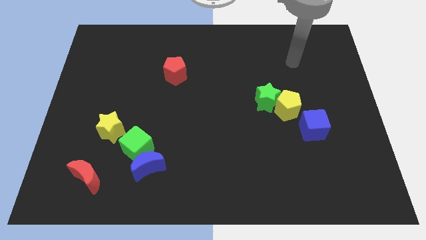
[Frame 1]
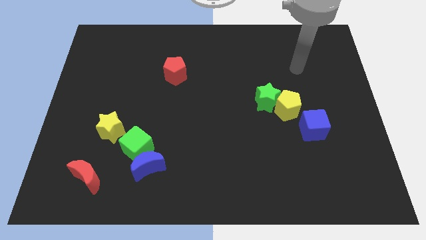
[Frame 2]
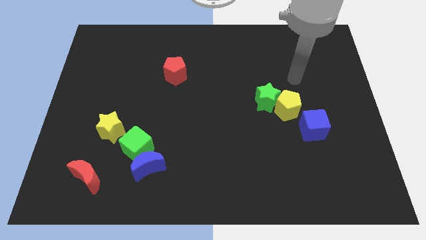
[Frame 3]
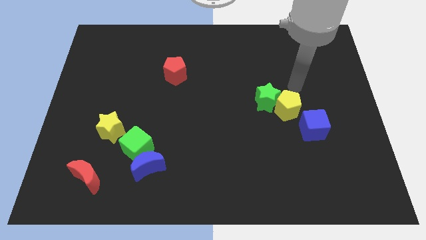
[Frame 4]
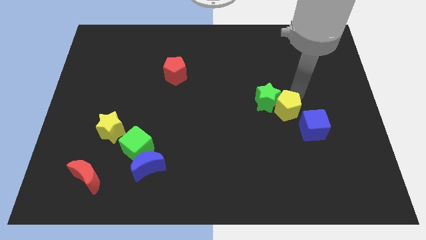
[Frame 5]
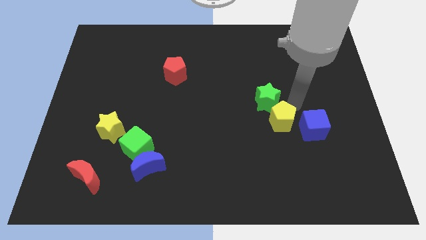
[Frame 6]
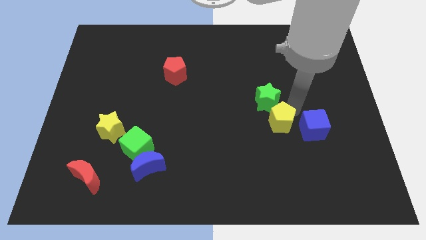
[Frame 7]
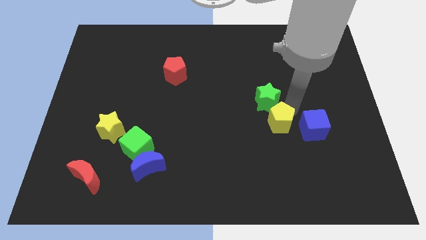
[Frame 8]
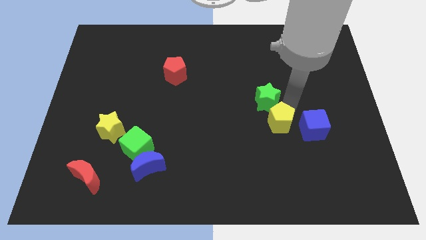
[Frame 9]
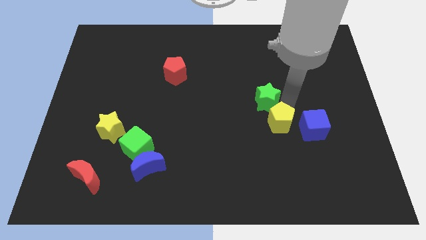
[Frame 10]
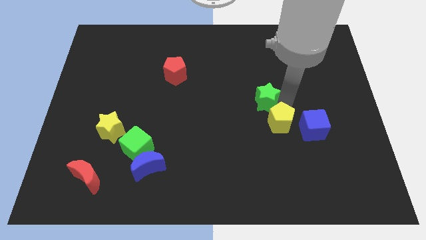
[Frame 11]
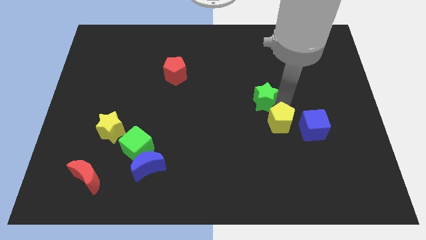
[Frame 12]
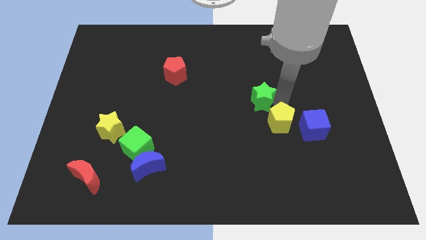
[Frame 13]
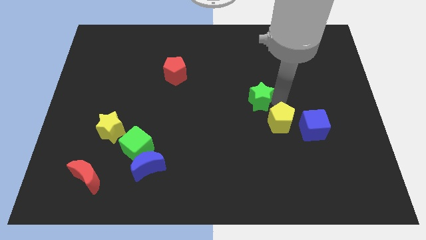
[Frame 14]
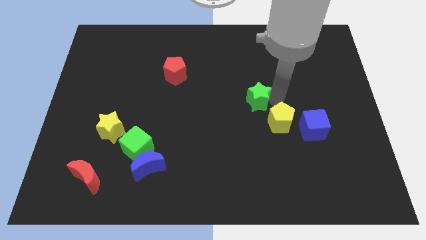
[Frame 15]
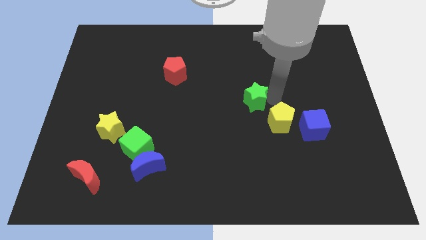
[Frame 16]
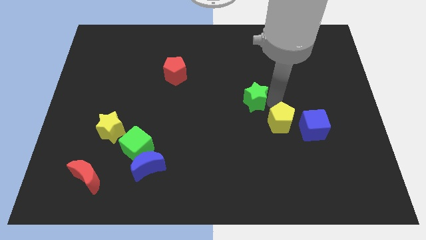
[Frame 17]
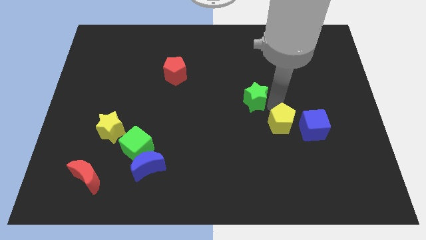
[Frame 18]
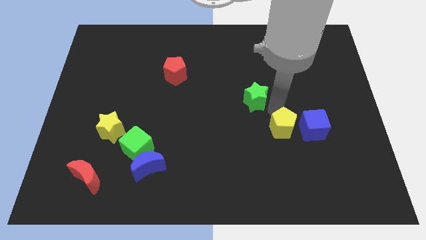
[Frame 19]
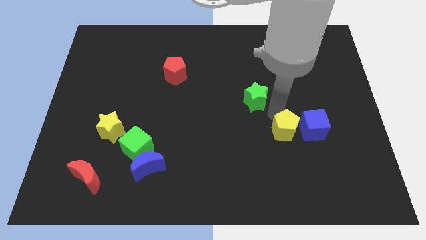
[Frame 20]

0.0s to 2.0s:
separate the green star from the yellow pentagon

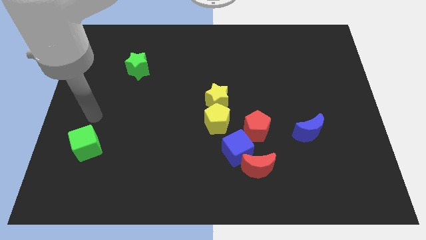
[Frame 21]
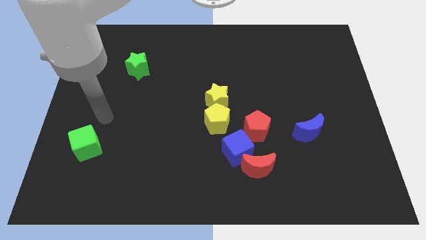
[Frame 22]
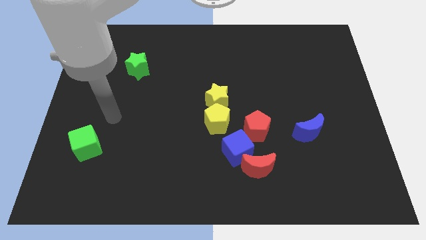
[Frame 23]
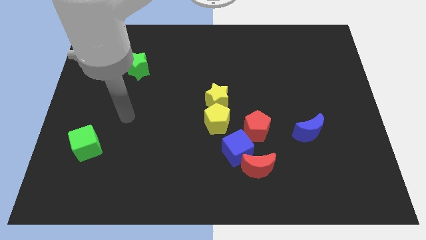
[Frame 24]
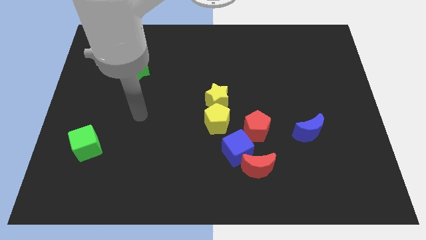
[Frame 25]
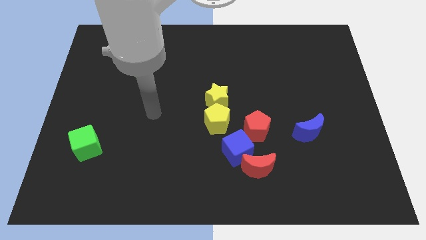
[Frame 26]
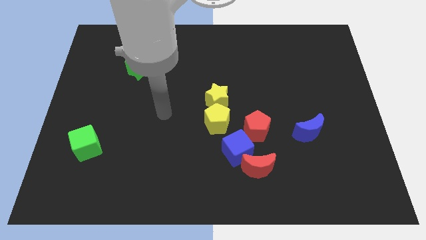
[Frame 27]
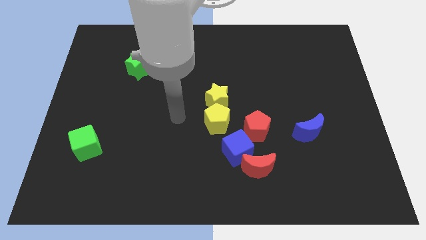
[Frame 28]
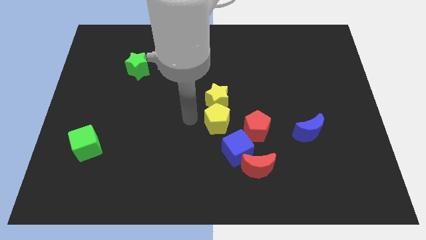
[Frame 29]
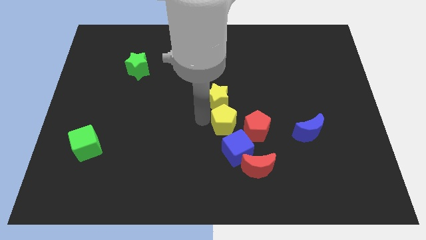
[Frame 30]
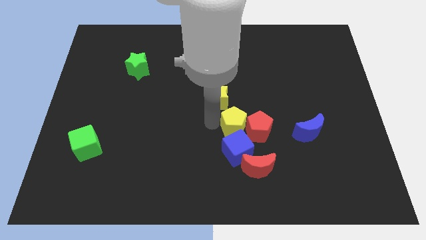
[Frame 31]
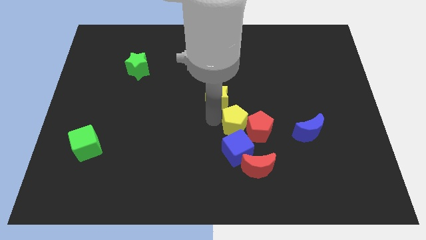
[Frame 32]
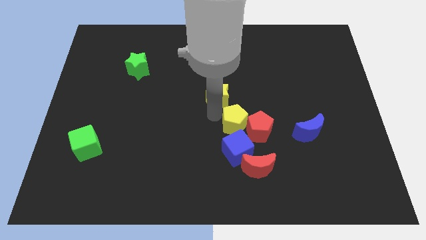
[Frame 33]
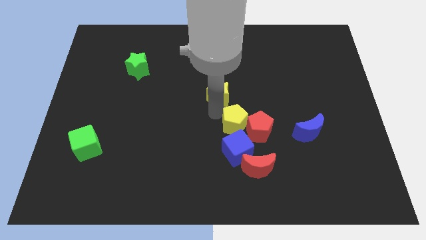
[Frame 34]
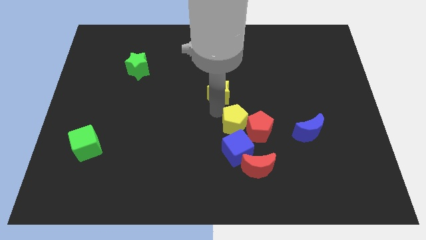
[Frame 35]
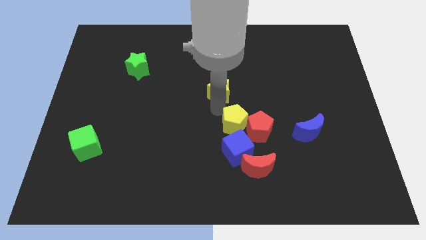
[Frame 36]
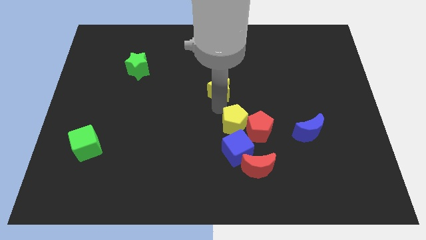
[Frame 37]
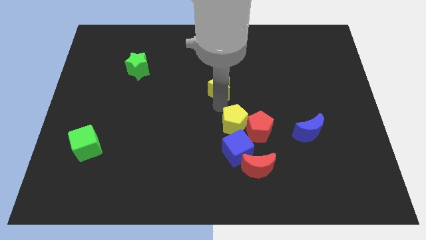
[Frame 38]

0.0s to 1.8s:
separate the yellow star from the yellow pentagon

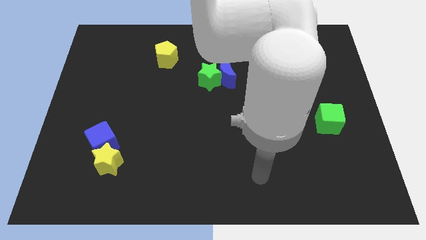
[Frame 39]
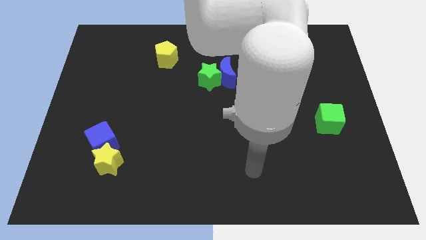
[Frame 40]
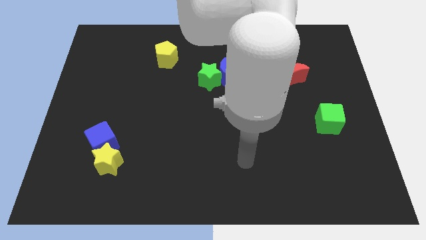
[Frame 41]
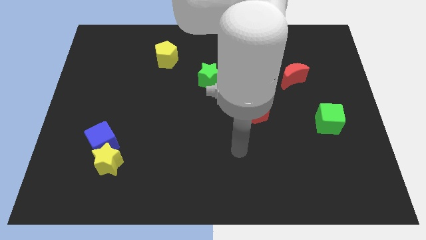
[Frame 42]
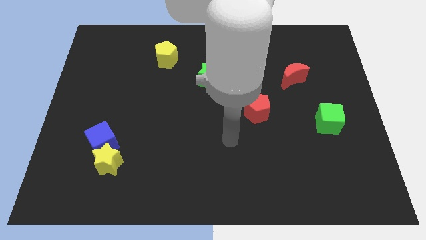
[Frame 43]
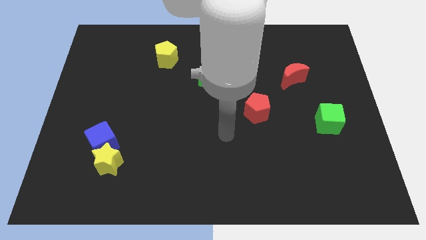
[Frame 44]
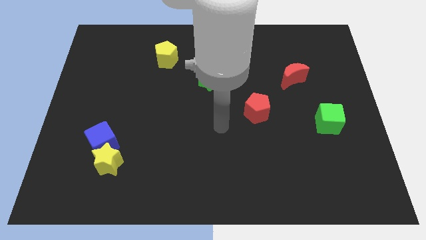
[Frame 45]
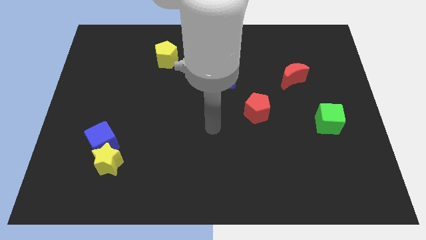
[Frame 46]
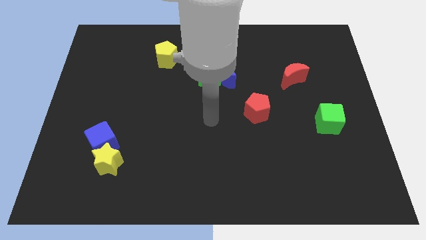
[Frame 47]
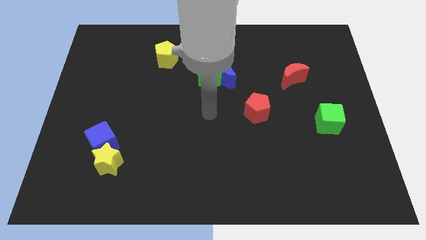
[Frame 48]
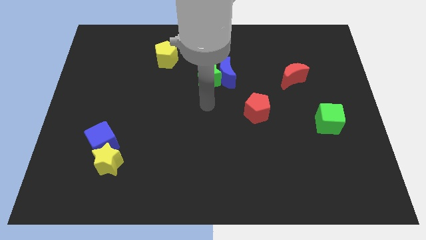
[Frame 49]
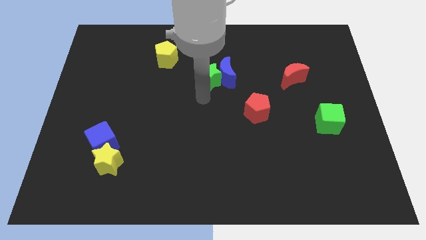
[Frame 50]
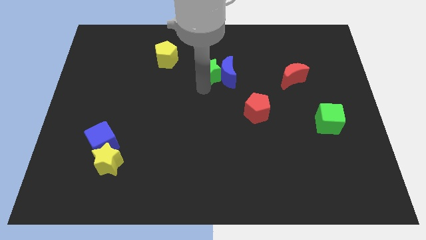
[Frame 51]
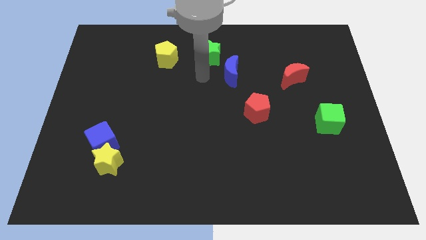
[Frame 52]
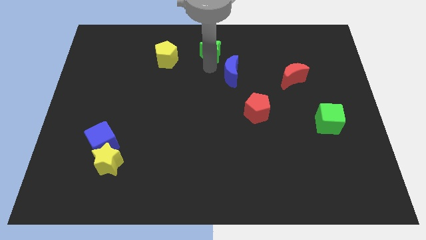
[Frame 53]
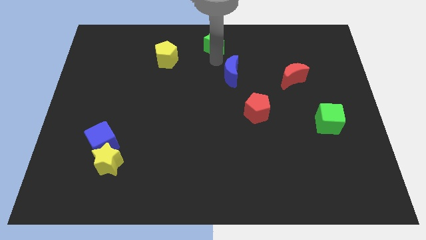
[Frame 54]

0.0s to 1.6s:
pull the blue moon apart from the green star

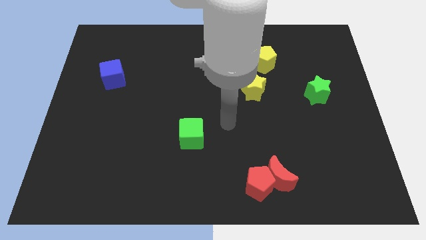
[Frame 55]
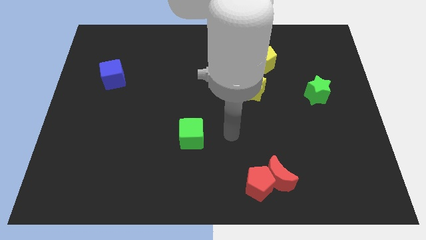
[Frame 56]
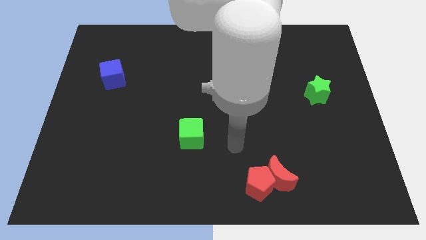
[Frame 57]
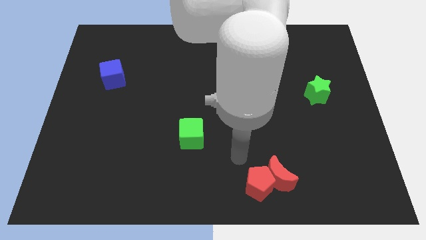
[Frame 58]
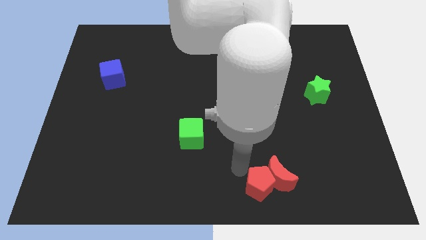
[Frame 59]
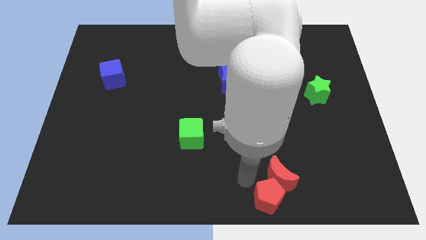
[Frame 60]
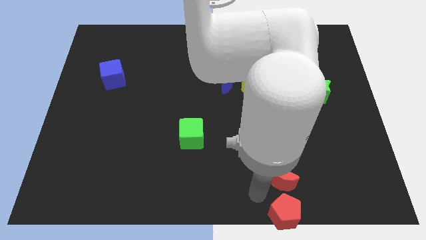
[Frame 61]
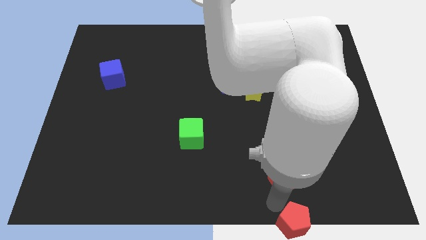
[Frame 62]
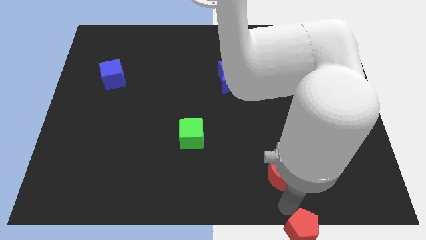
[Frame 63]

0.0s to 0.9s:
pull the red moon apart from the red pentagon

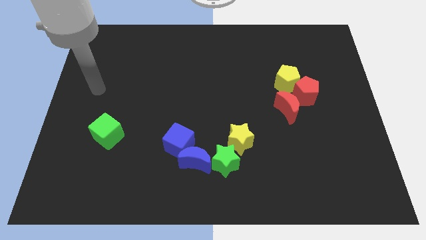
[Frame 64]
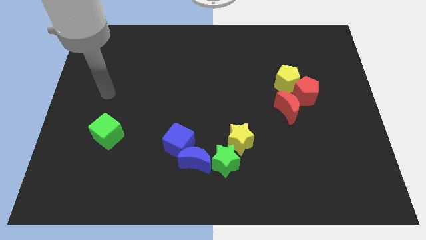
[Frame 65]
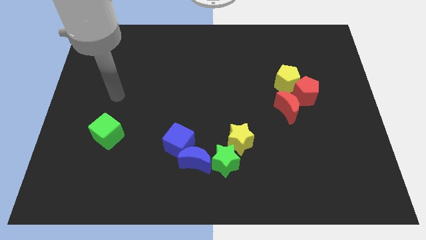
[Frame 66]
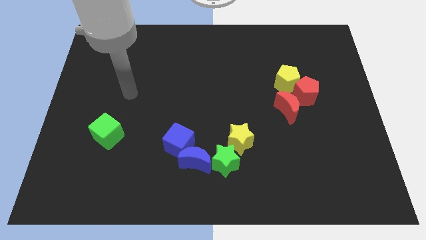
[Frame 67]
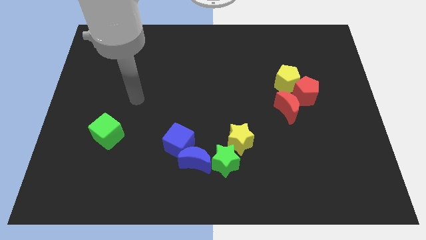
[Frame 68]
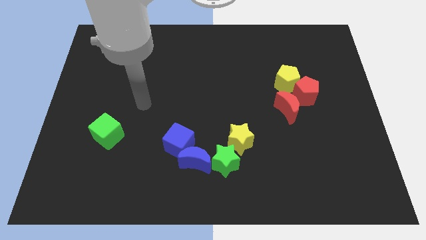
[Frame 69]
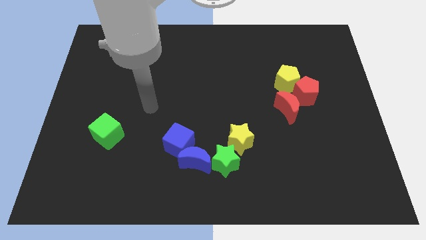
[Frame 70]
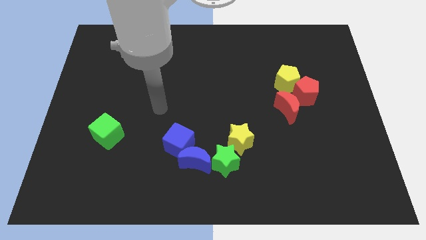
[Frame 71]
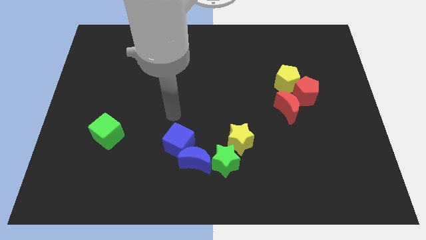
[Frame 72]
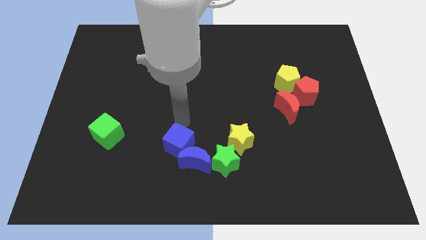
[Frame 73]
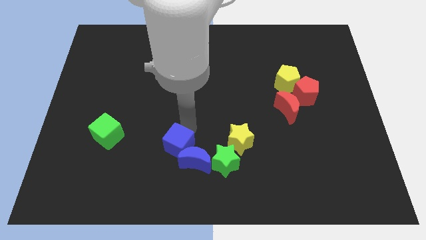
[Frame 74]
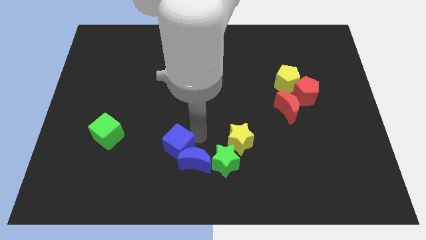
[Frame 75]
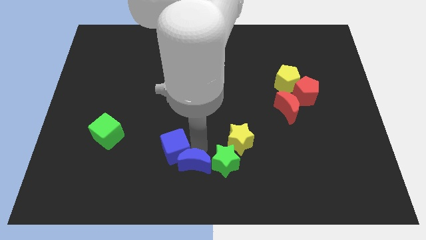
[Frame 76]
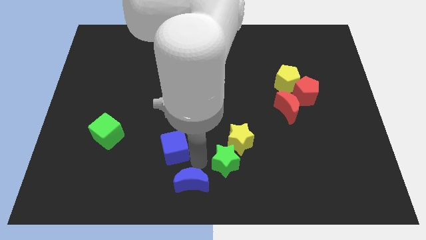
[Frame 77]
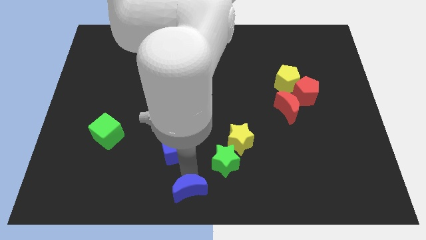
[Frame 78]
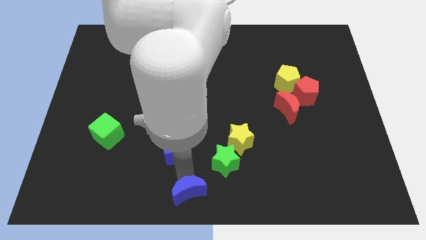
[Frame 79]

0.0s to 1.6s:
move the blue cube away from the blue moon

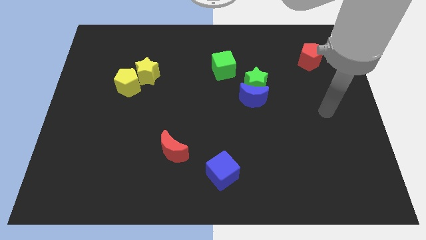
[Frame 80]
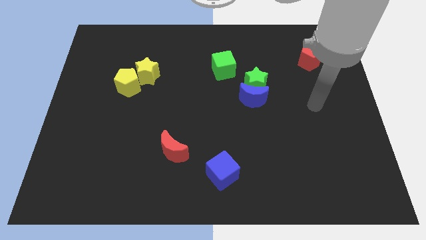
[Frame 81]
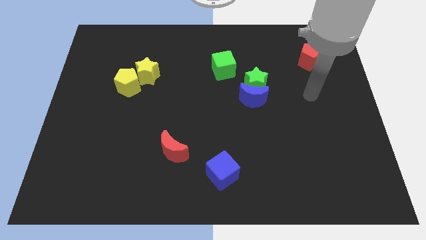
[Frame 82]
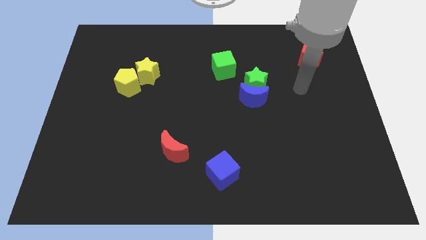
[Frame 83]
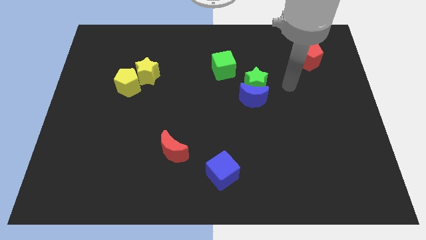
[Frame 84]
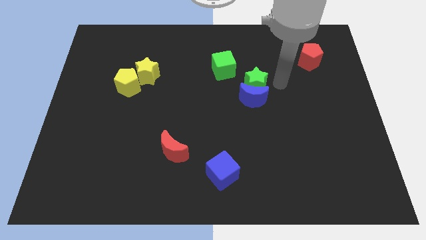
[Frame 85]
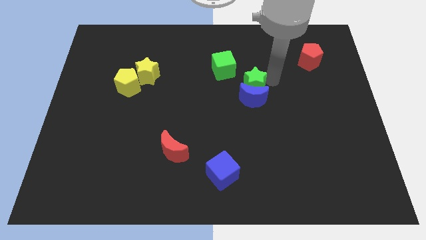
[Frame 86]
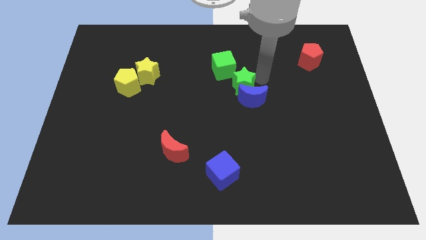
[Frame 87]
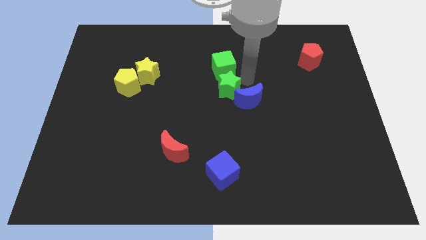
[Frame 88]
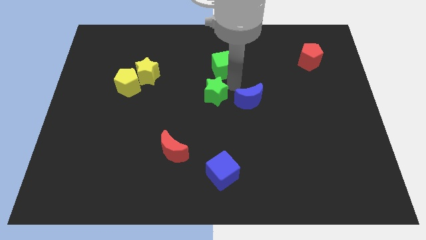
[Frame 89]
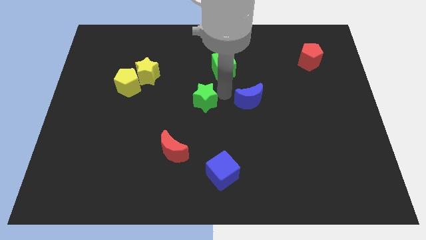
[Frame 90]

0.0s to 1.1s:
separate the blue moon from the green star

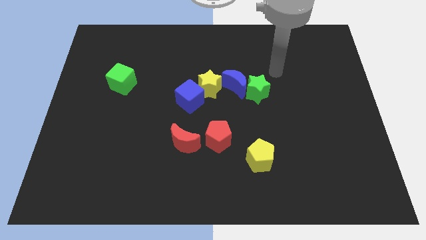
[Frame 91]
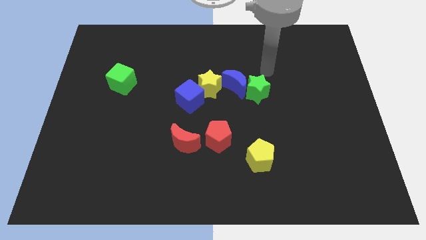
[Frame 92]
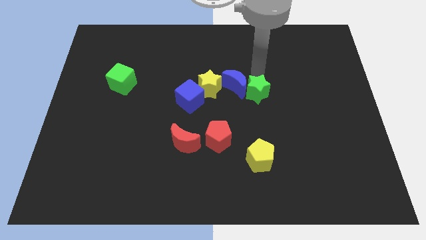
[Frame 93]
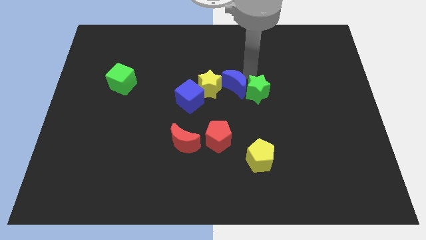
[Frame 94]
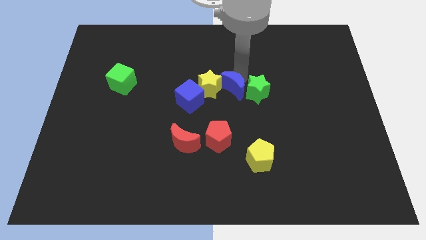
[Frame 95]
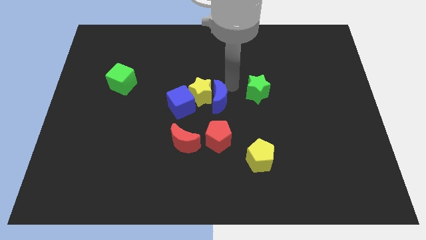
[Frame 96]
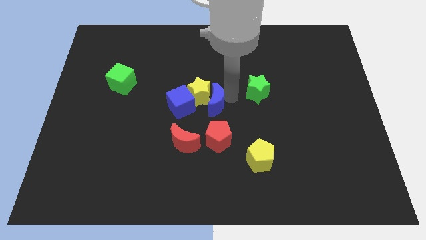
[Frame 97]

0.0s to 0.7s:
move the green star away from the blue moon
